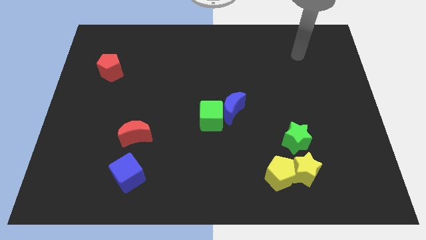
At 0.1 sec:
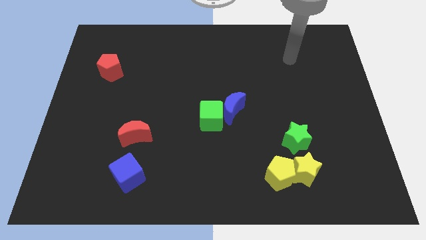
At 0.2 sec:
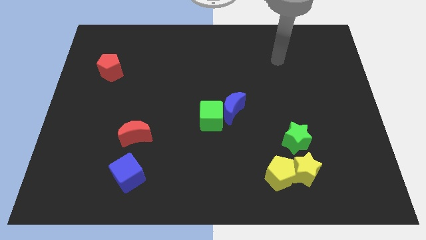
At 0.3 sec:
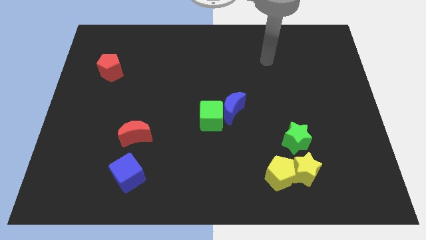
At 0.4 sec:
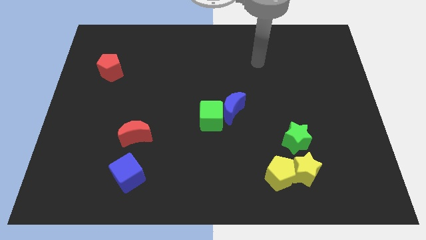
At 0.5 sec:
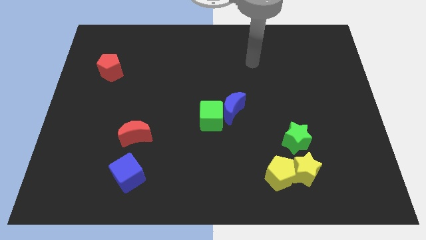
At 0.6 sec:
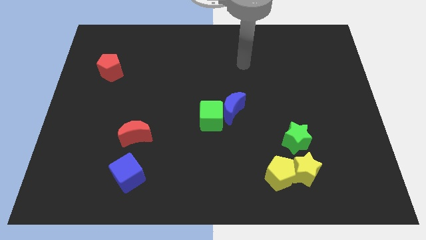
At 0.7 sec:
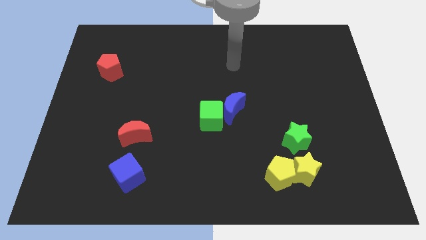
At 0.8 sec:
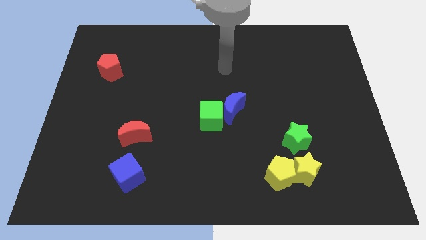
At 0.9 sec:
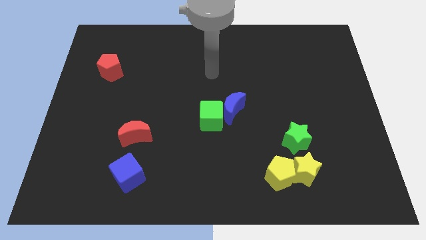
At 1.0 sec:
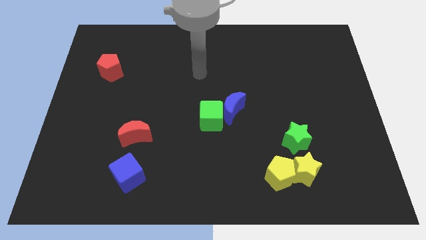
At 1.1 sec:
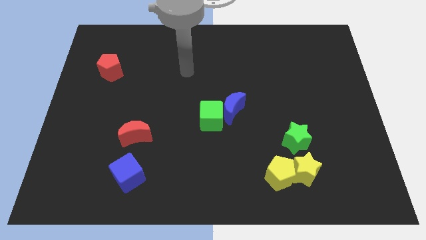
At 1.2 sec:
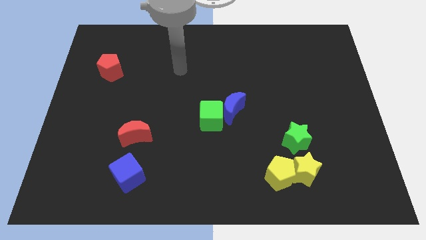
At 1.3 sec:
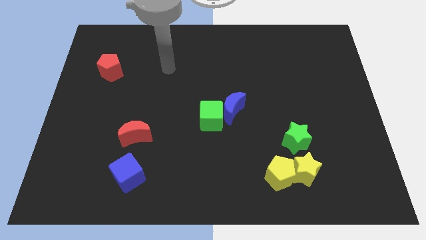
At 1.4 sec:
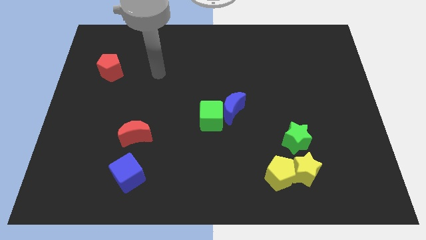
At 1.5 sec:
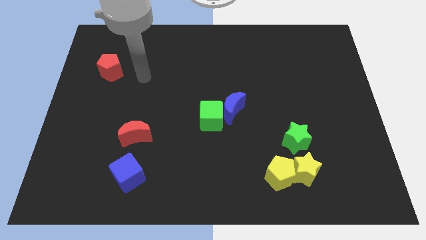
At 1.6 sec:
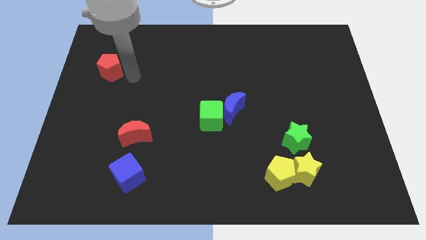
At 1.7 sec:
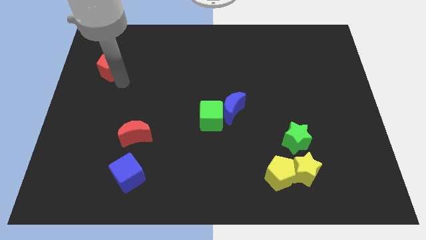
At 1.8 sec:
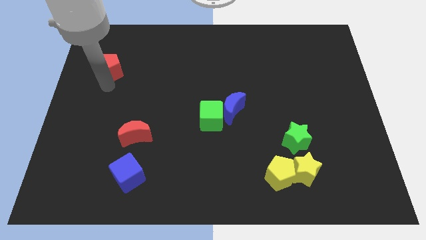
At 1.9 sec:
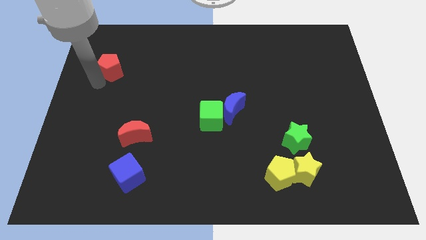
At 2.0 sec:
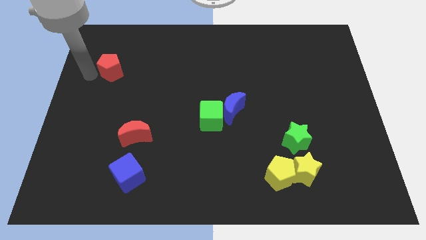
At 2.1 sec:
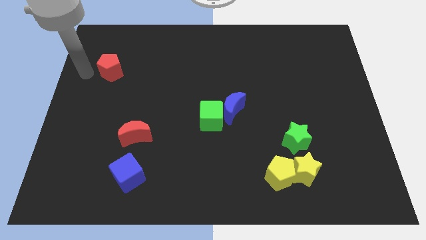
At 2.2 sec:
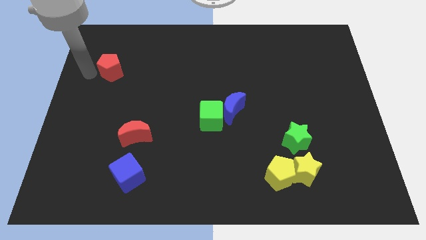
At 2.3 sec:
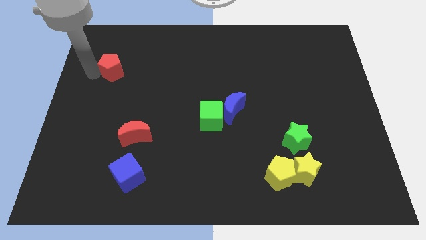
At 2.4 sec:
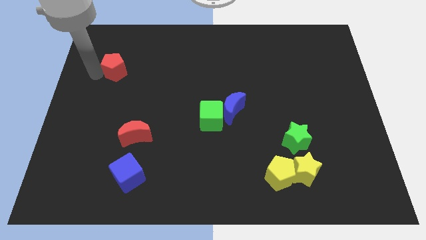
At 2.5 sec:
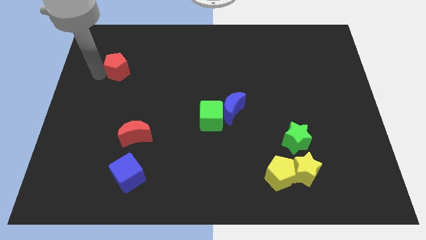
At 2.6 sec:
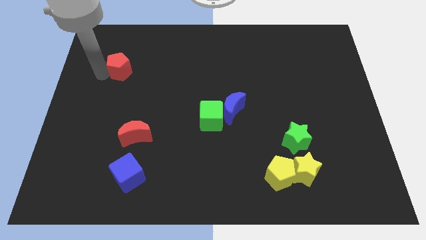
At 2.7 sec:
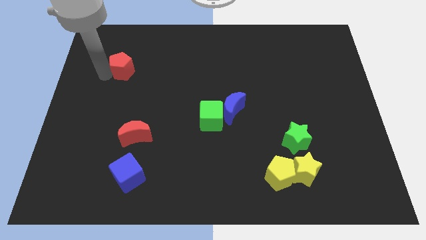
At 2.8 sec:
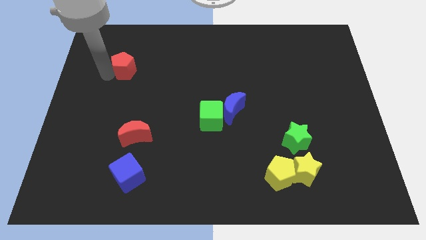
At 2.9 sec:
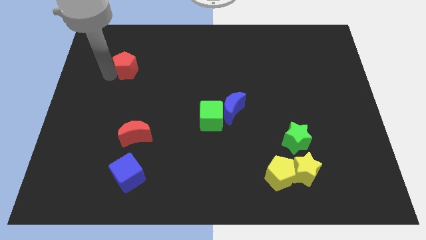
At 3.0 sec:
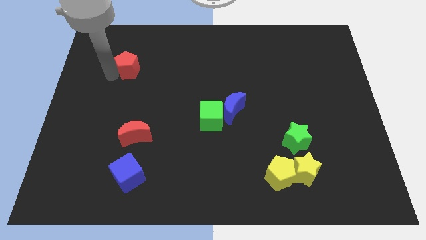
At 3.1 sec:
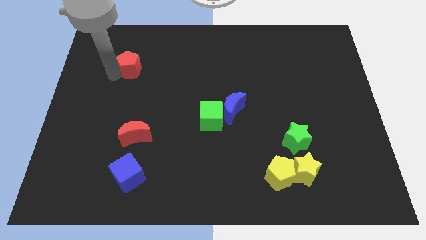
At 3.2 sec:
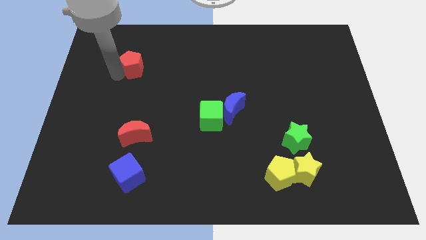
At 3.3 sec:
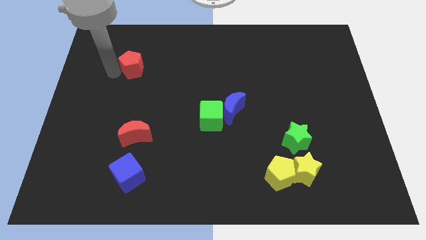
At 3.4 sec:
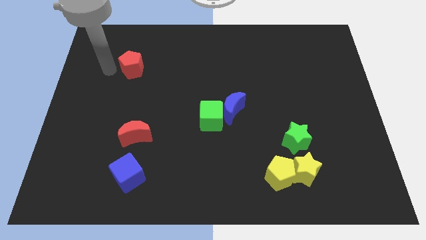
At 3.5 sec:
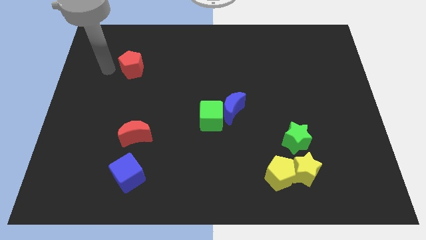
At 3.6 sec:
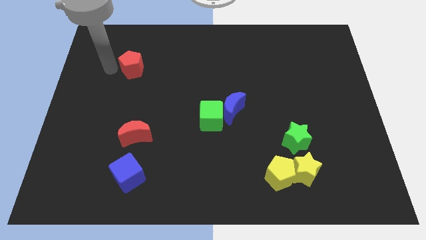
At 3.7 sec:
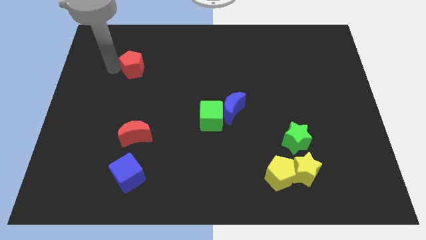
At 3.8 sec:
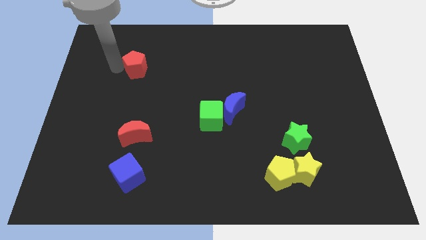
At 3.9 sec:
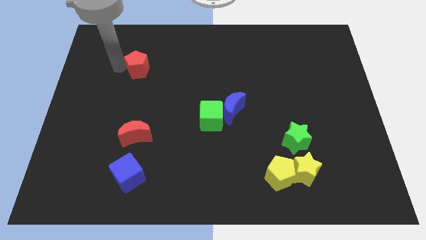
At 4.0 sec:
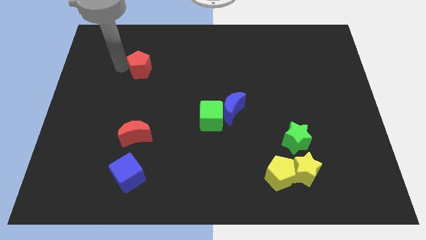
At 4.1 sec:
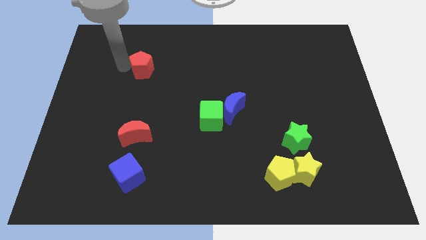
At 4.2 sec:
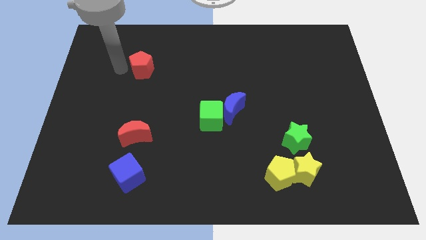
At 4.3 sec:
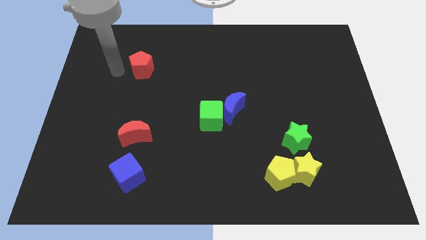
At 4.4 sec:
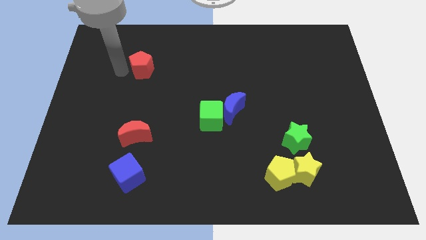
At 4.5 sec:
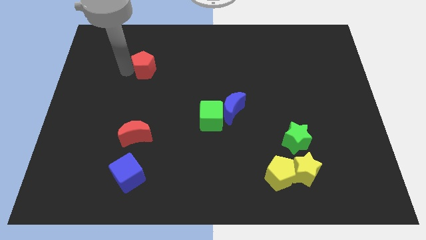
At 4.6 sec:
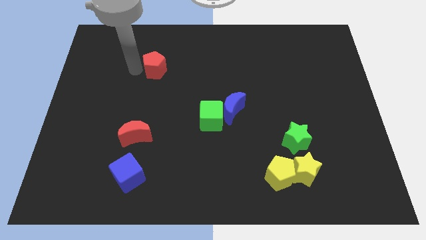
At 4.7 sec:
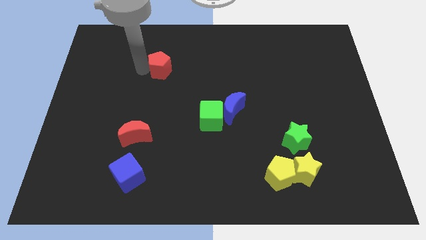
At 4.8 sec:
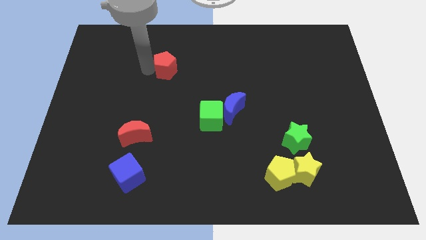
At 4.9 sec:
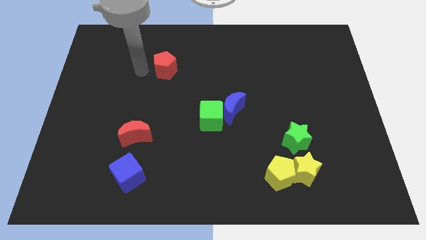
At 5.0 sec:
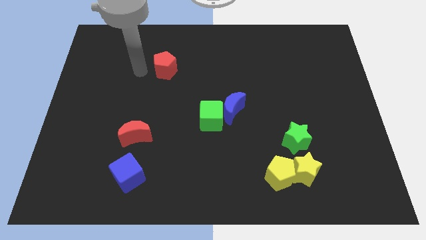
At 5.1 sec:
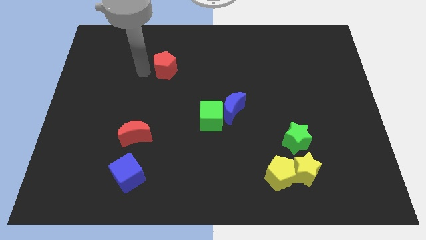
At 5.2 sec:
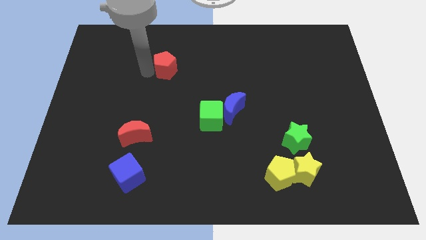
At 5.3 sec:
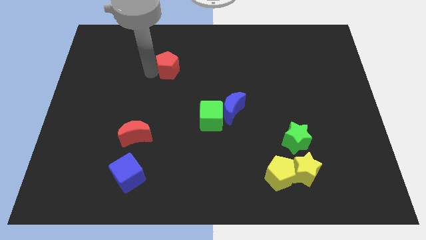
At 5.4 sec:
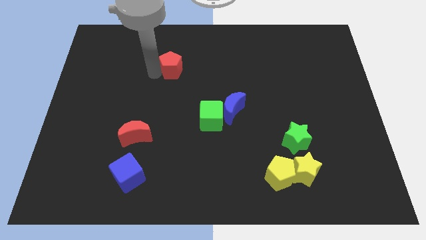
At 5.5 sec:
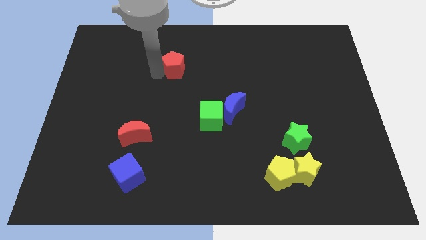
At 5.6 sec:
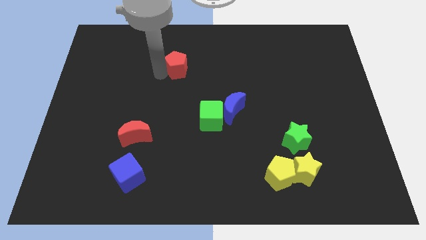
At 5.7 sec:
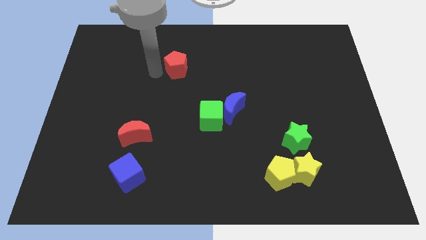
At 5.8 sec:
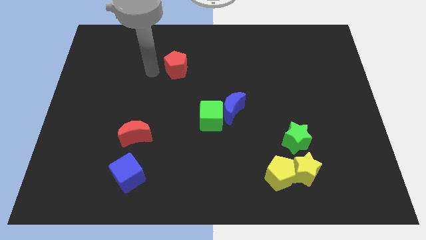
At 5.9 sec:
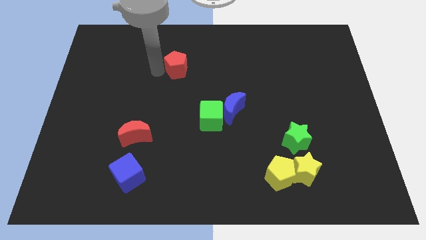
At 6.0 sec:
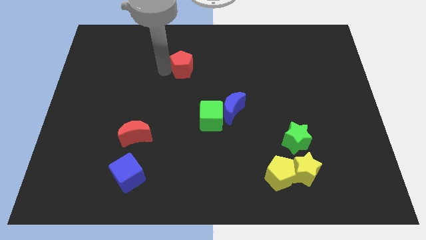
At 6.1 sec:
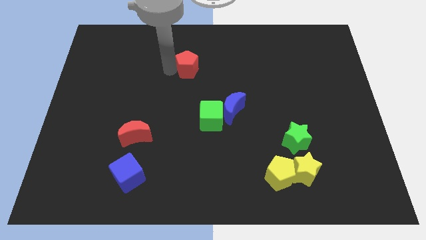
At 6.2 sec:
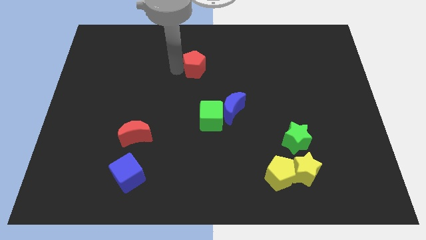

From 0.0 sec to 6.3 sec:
push the red pentagon right

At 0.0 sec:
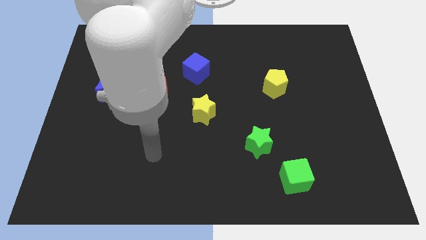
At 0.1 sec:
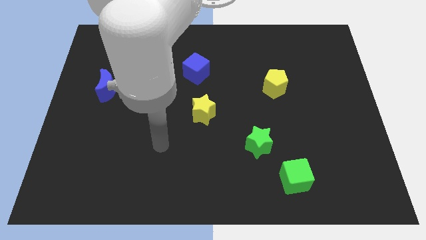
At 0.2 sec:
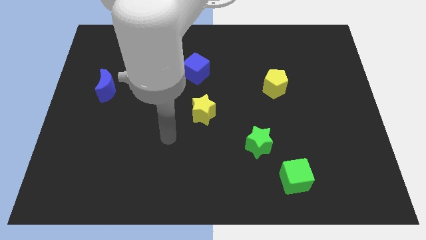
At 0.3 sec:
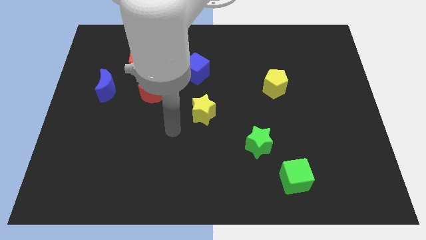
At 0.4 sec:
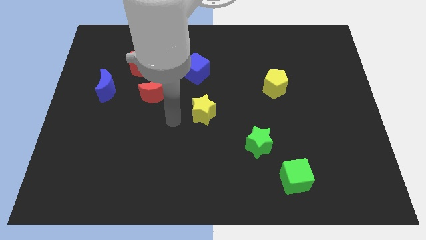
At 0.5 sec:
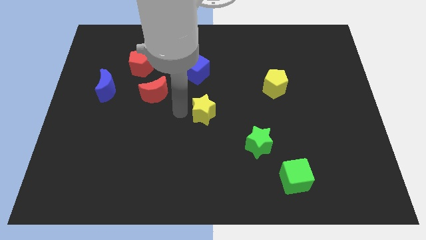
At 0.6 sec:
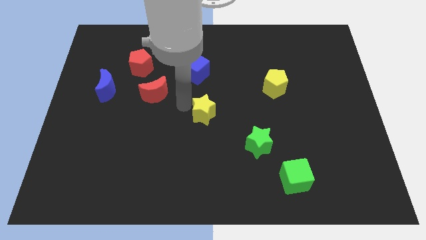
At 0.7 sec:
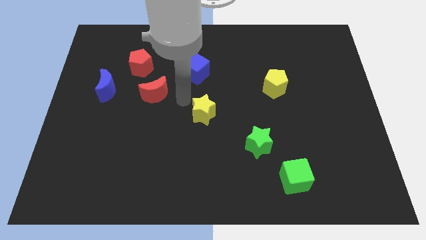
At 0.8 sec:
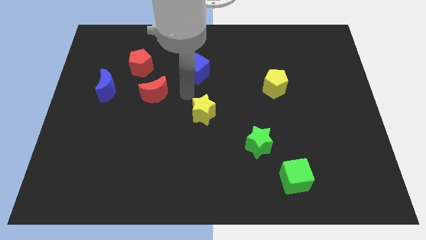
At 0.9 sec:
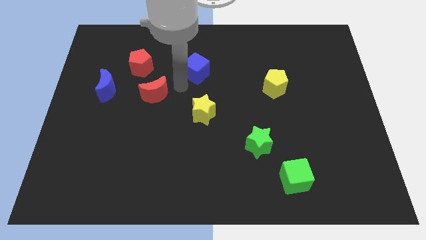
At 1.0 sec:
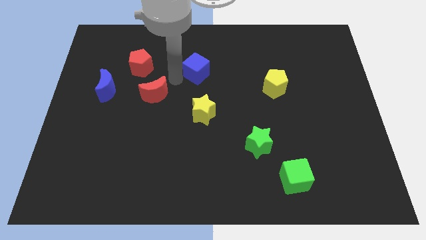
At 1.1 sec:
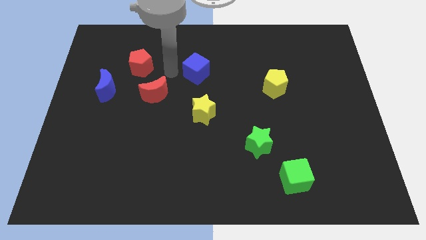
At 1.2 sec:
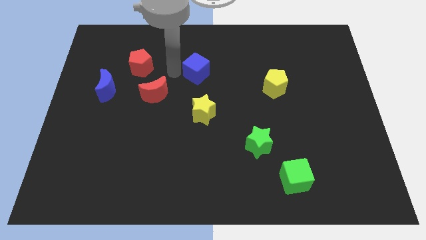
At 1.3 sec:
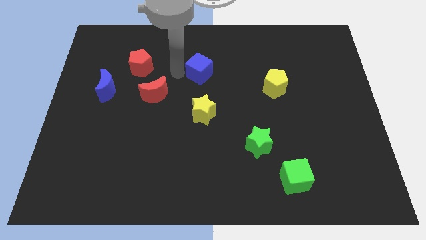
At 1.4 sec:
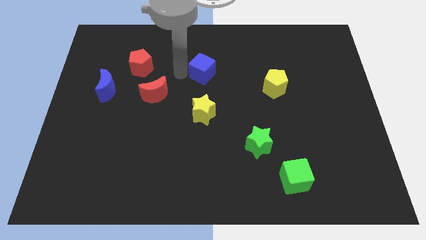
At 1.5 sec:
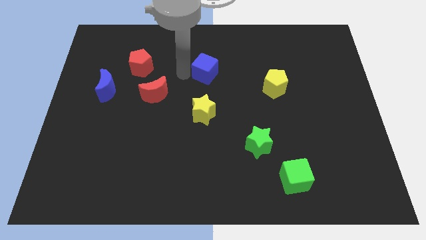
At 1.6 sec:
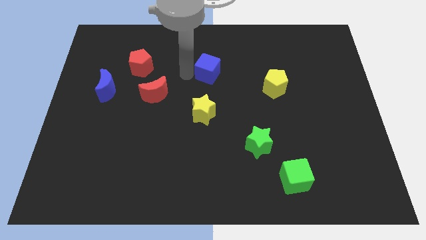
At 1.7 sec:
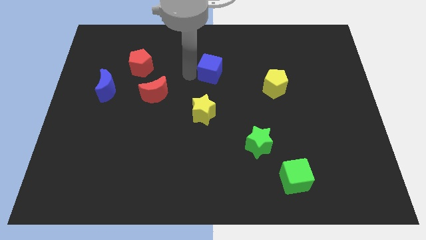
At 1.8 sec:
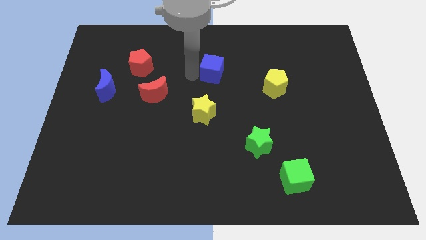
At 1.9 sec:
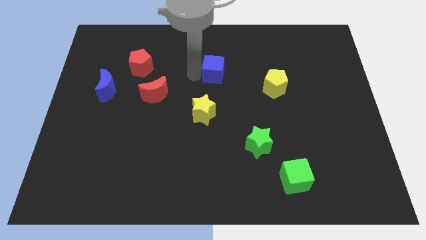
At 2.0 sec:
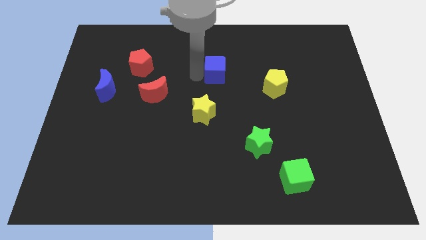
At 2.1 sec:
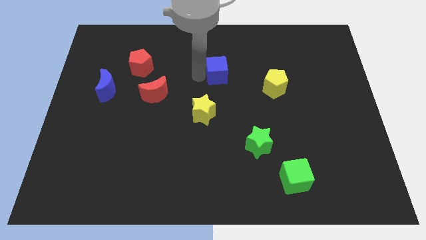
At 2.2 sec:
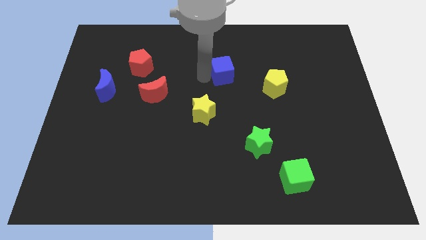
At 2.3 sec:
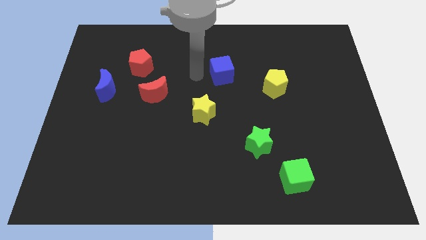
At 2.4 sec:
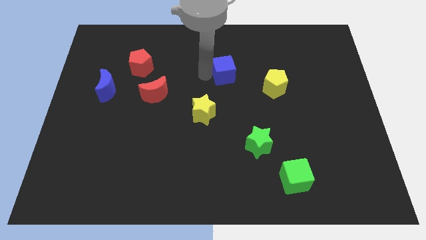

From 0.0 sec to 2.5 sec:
move the blue cube somewhat right
